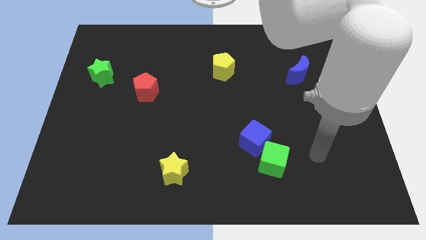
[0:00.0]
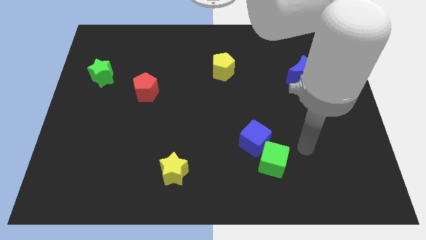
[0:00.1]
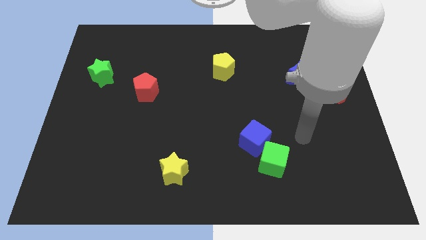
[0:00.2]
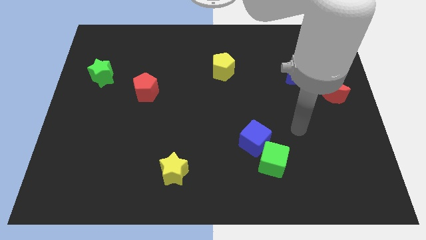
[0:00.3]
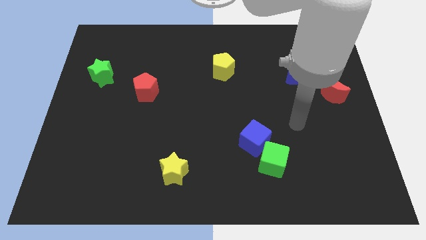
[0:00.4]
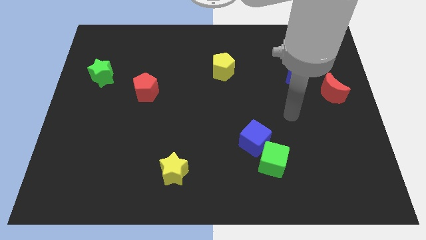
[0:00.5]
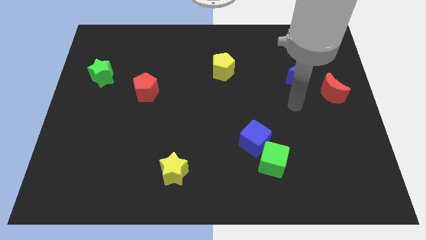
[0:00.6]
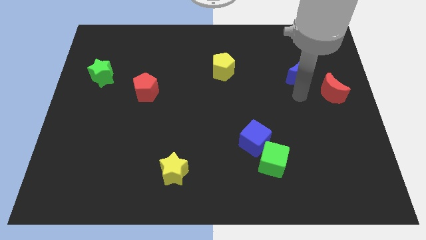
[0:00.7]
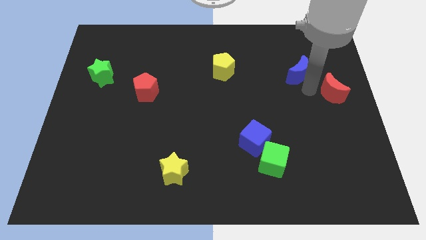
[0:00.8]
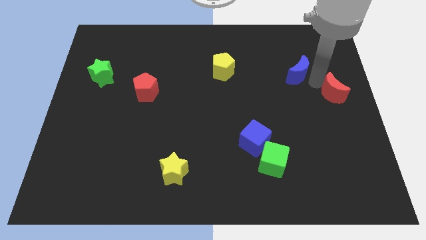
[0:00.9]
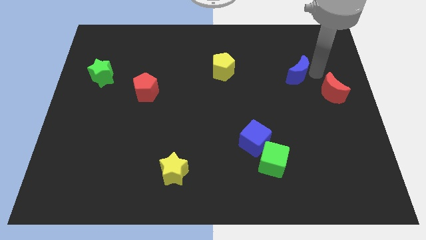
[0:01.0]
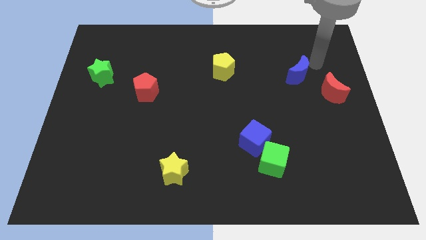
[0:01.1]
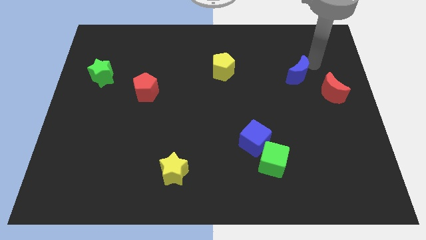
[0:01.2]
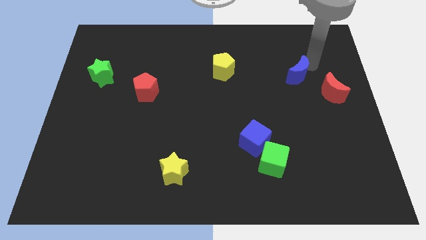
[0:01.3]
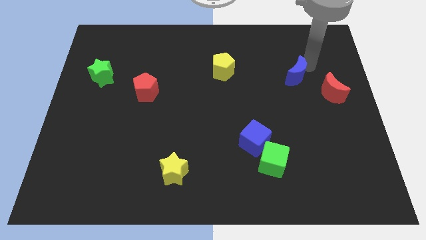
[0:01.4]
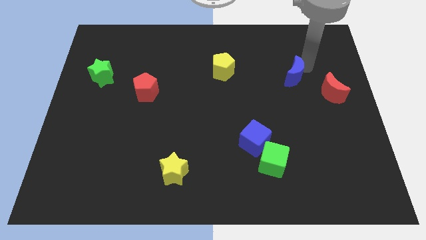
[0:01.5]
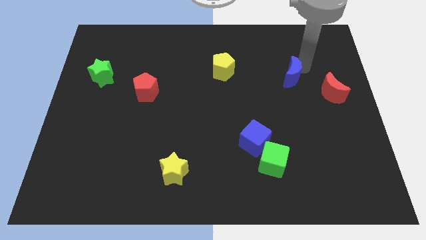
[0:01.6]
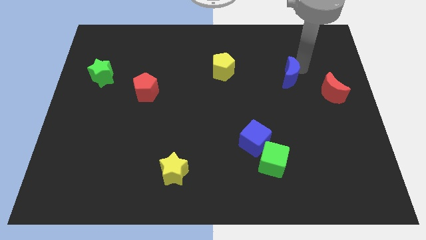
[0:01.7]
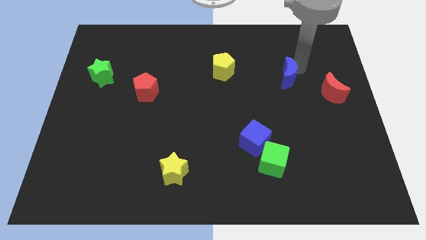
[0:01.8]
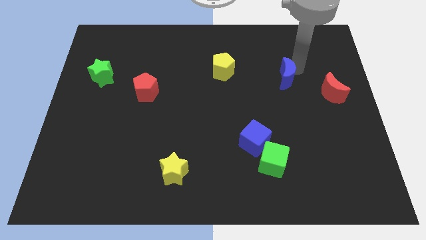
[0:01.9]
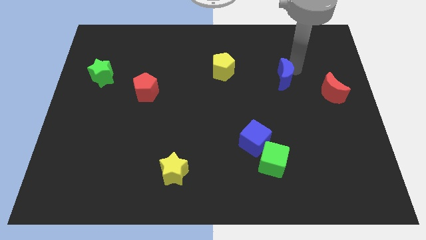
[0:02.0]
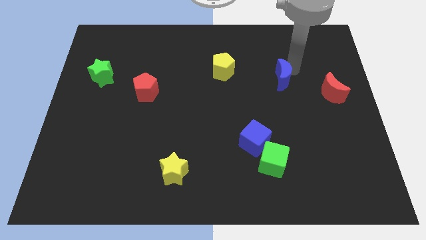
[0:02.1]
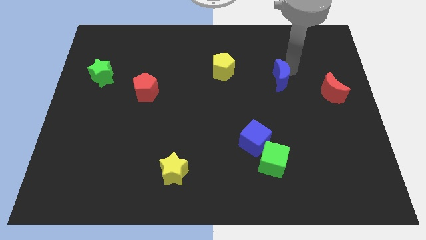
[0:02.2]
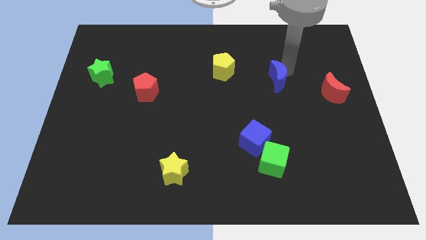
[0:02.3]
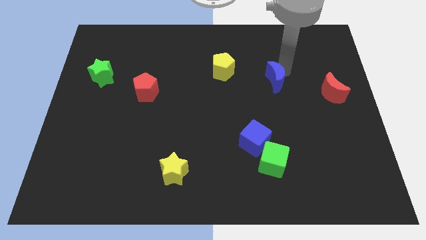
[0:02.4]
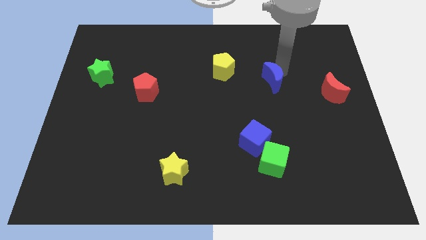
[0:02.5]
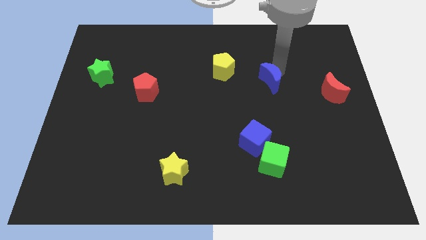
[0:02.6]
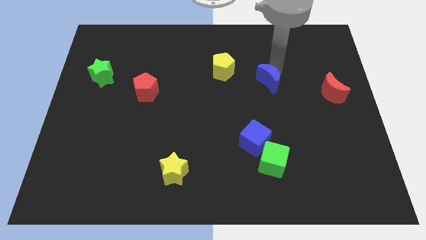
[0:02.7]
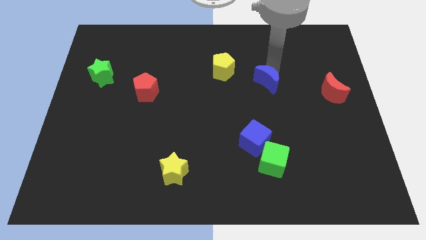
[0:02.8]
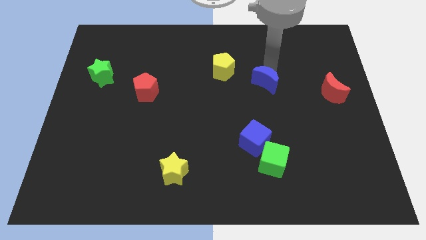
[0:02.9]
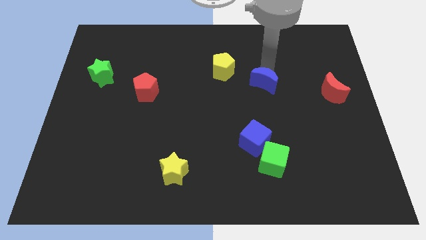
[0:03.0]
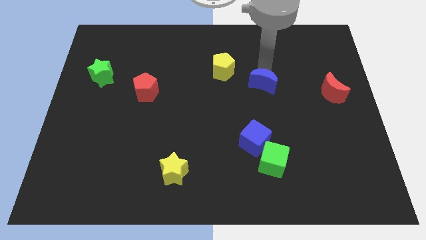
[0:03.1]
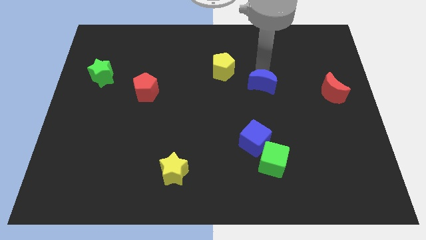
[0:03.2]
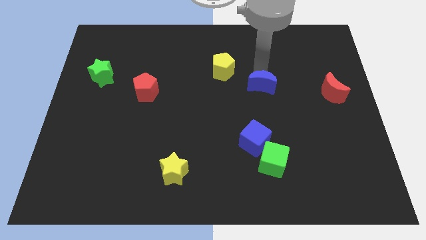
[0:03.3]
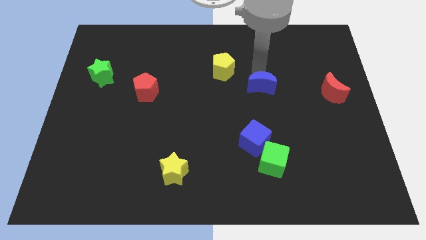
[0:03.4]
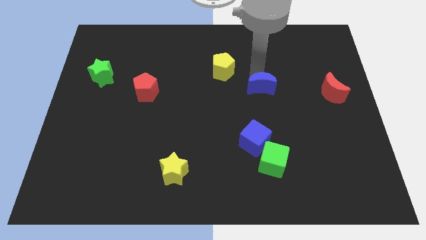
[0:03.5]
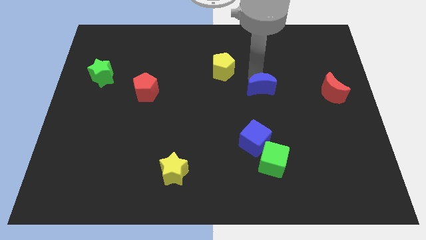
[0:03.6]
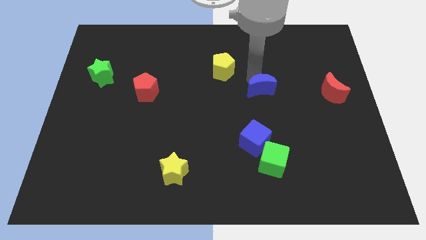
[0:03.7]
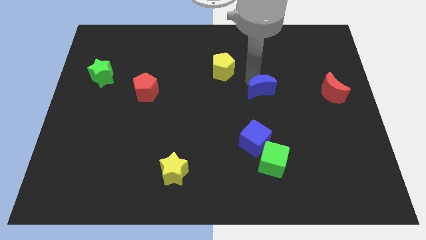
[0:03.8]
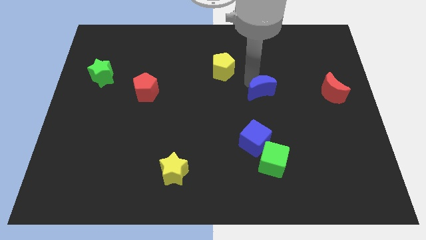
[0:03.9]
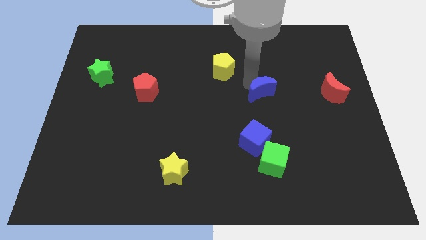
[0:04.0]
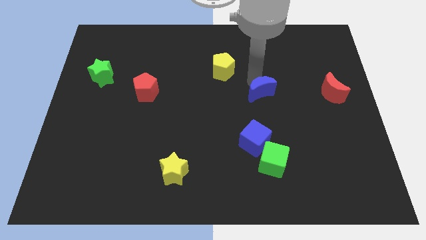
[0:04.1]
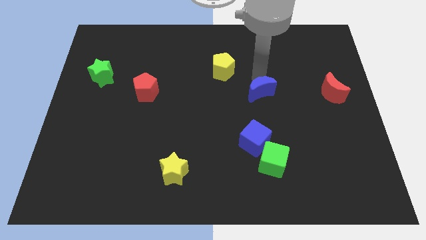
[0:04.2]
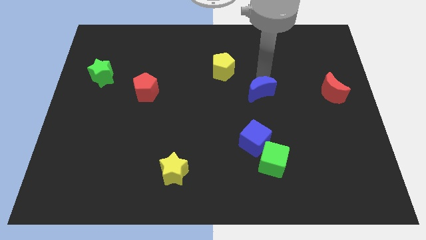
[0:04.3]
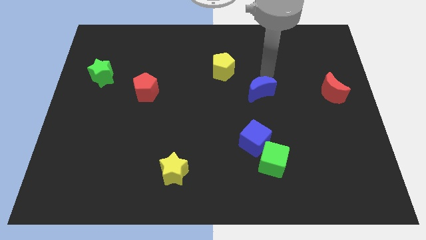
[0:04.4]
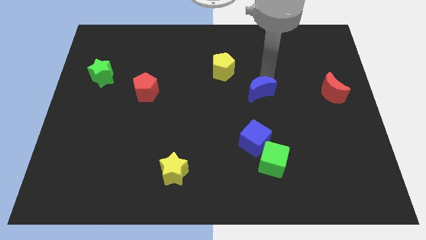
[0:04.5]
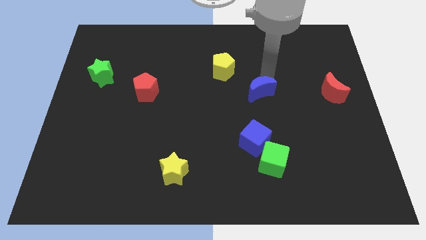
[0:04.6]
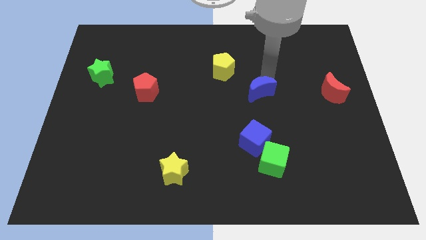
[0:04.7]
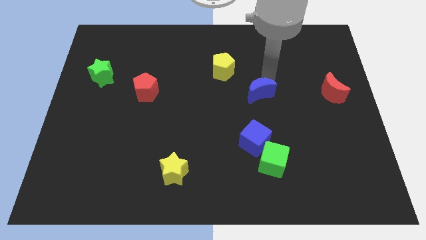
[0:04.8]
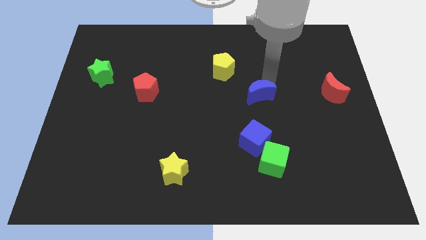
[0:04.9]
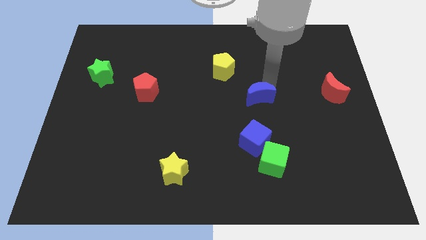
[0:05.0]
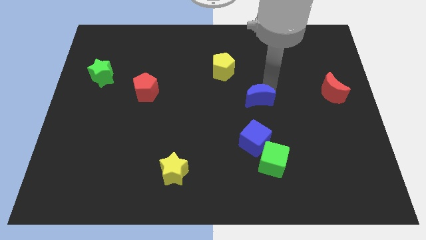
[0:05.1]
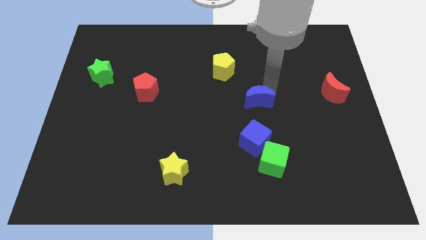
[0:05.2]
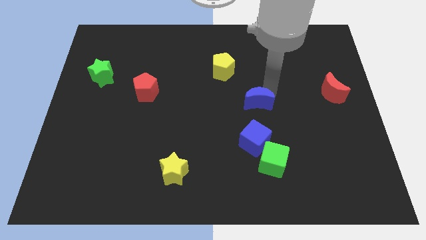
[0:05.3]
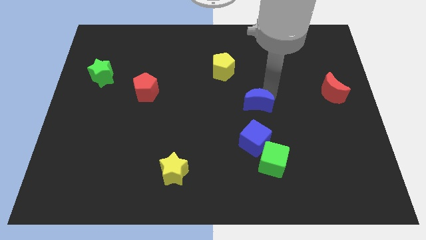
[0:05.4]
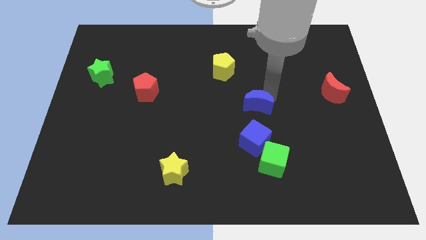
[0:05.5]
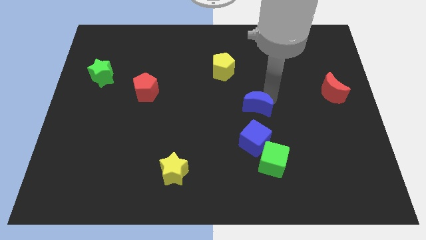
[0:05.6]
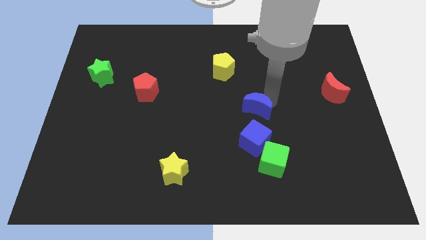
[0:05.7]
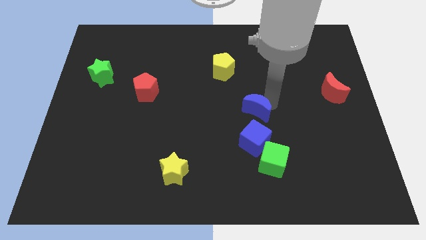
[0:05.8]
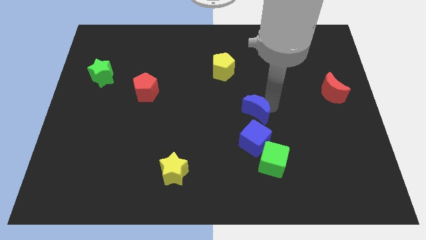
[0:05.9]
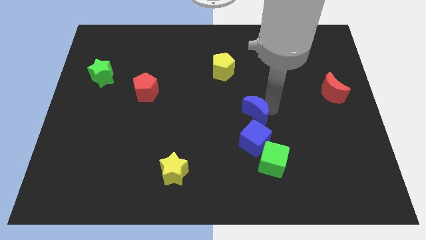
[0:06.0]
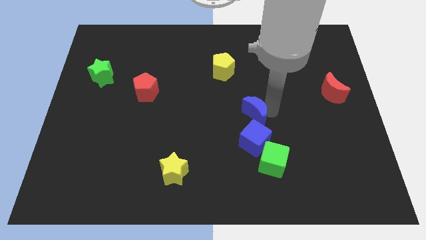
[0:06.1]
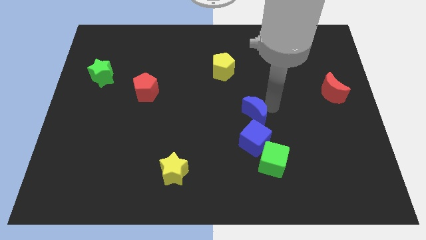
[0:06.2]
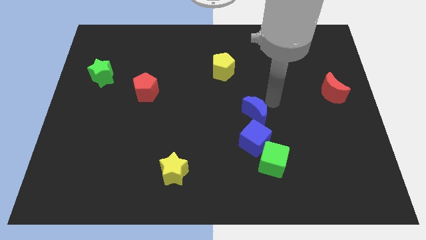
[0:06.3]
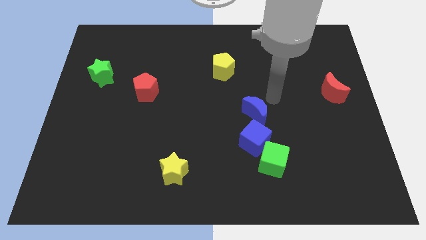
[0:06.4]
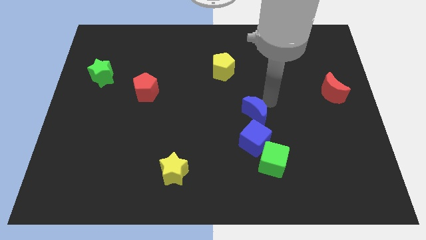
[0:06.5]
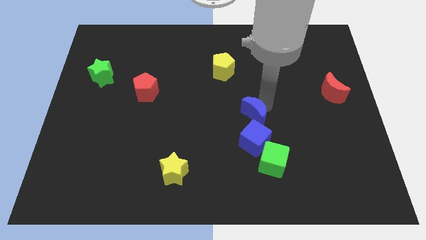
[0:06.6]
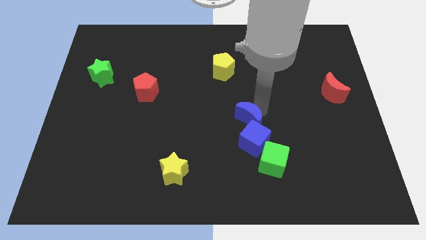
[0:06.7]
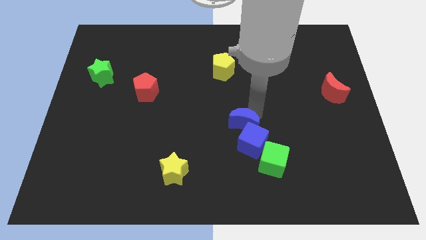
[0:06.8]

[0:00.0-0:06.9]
push the blue moon downwards and then left

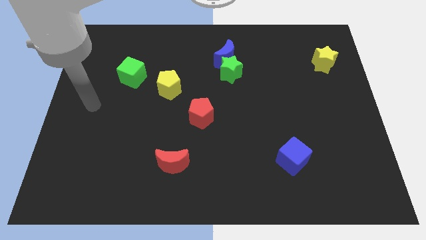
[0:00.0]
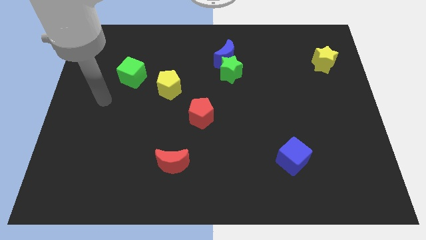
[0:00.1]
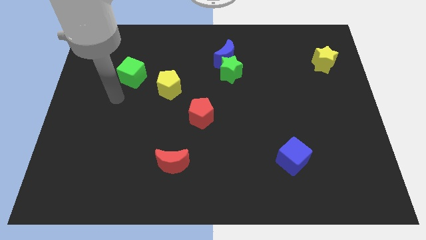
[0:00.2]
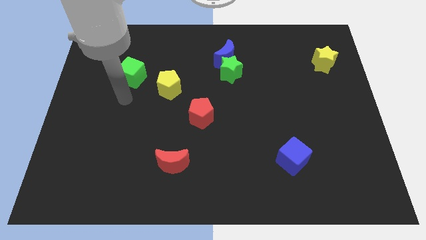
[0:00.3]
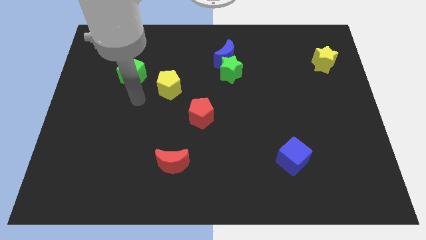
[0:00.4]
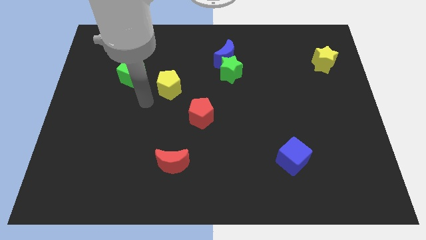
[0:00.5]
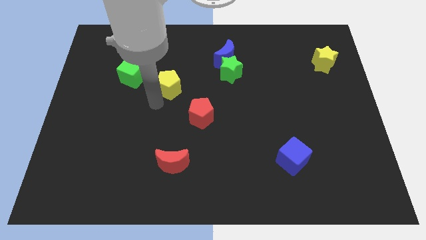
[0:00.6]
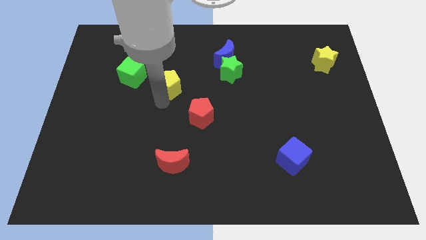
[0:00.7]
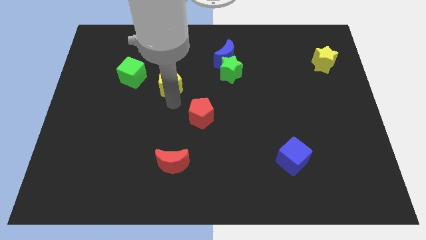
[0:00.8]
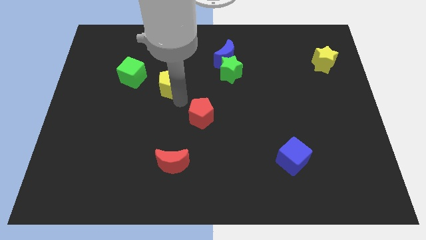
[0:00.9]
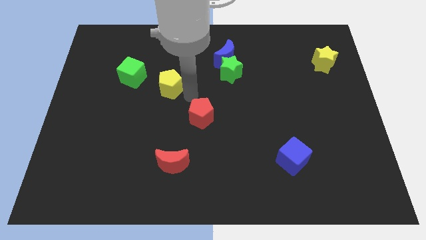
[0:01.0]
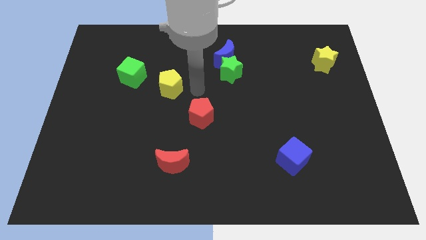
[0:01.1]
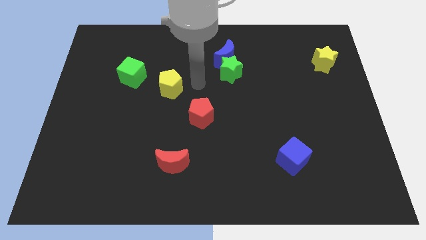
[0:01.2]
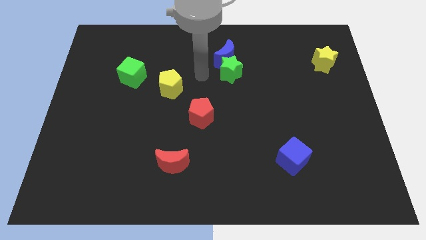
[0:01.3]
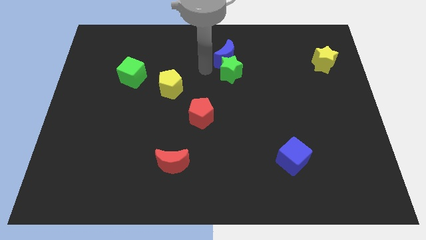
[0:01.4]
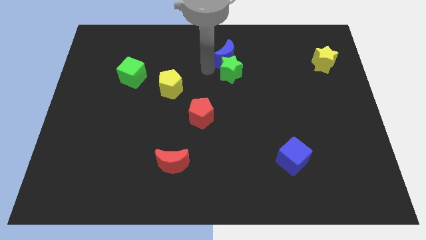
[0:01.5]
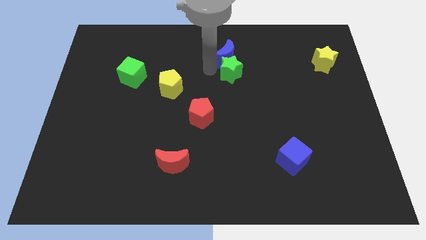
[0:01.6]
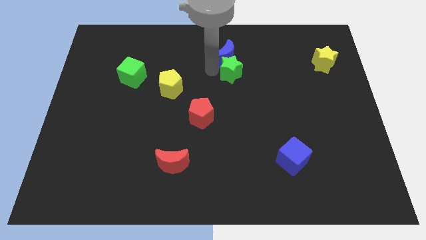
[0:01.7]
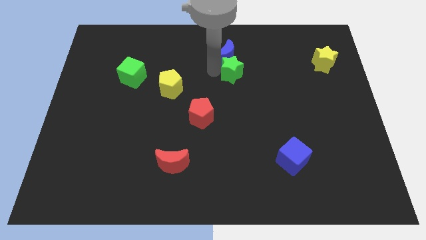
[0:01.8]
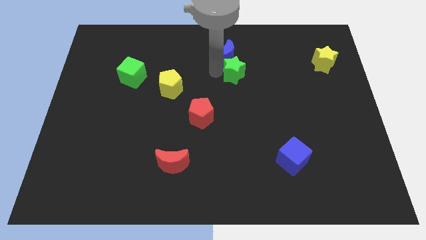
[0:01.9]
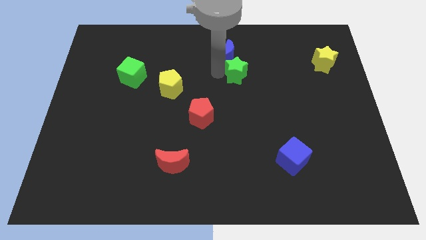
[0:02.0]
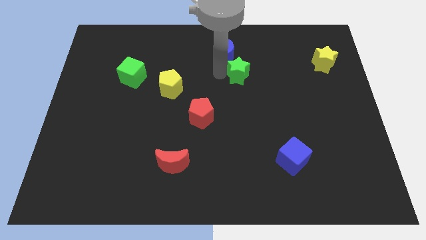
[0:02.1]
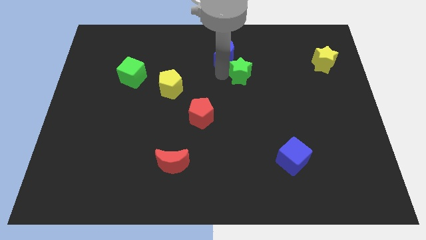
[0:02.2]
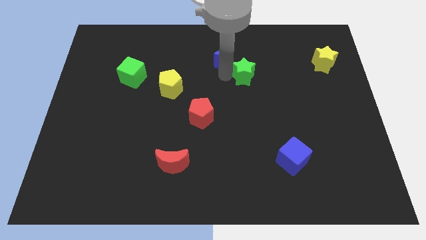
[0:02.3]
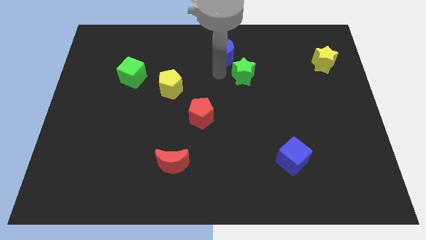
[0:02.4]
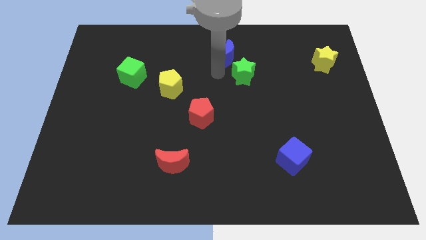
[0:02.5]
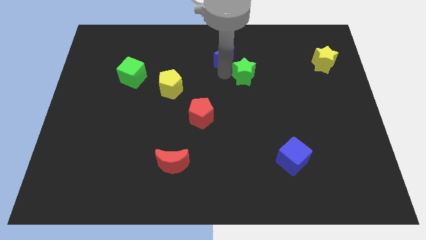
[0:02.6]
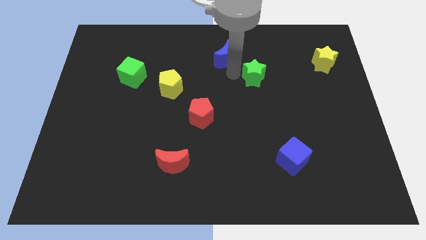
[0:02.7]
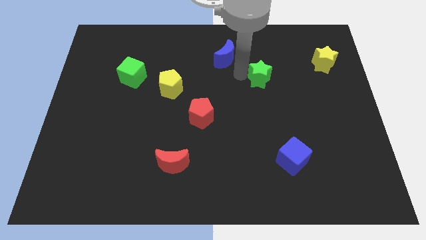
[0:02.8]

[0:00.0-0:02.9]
slightly push the green star right
